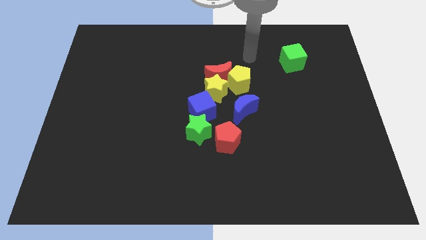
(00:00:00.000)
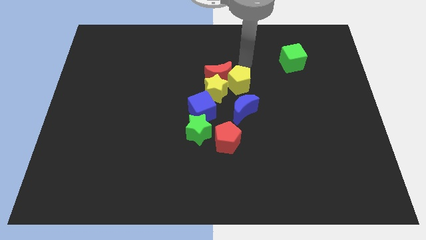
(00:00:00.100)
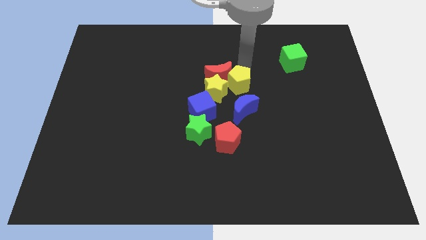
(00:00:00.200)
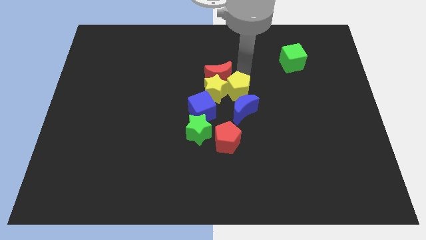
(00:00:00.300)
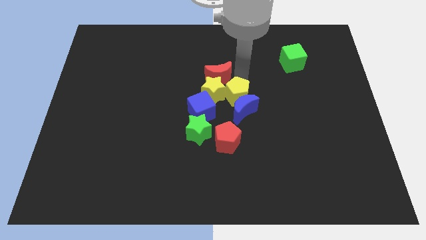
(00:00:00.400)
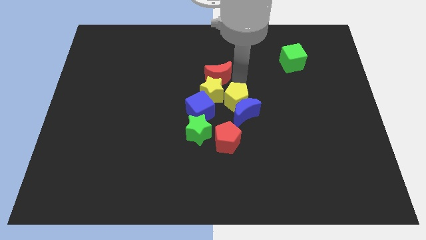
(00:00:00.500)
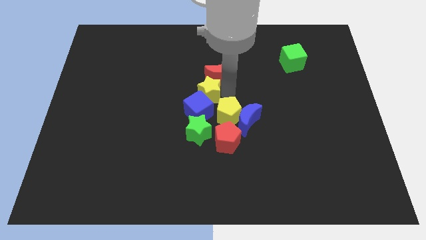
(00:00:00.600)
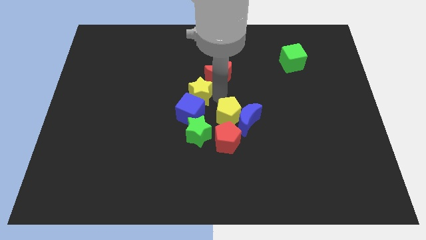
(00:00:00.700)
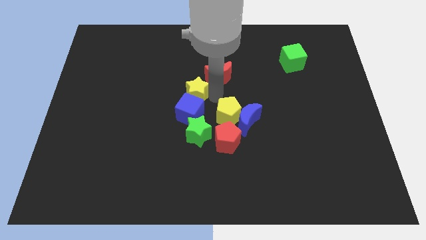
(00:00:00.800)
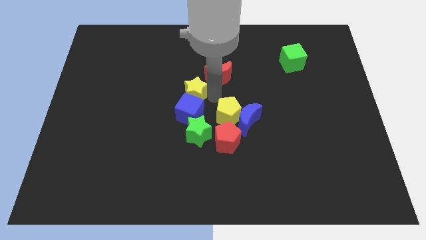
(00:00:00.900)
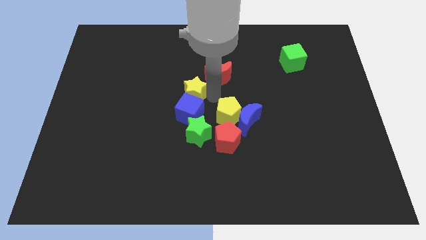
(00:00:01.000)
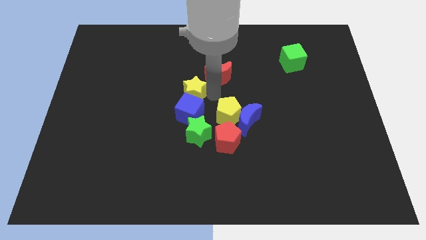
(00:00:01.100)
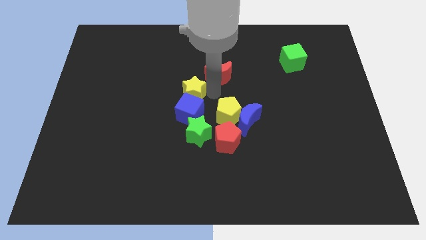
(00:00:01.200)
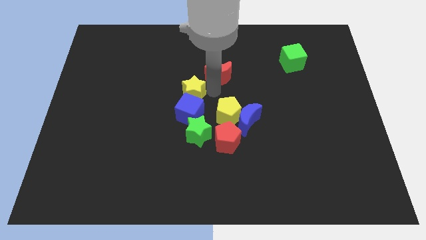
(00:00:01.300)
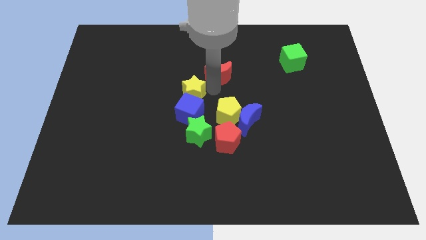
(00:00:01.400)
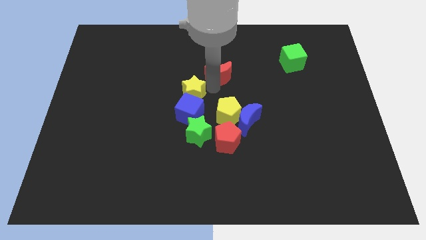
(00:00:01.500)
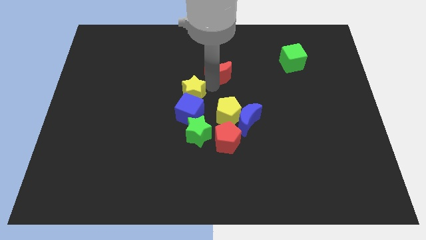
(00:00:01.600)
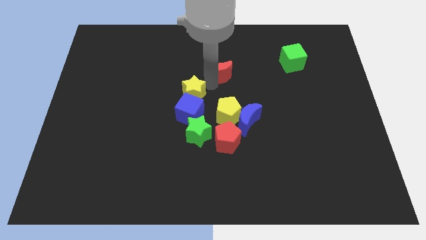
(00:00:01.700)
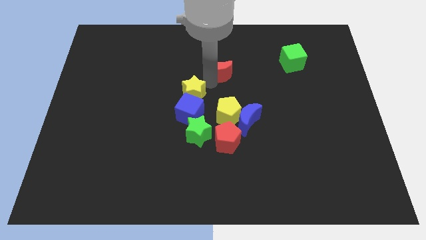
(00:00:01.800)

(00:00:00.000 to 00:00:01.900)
pull the red moon apart from the yellow star and yellow pentagon

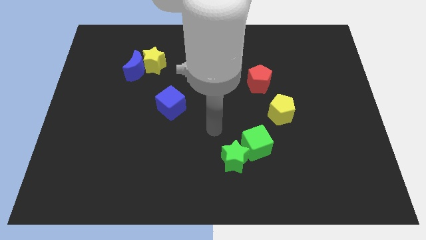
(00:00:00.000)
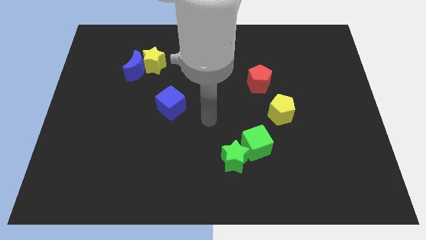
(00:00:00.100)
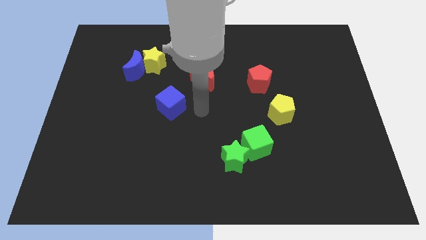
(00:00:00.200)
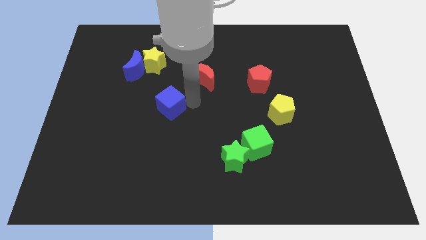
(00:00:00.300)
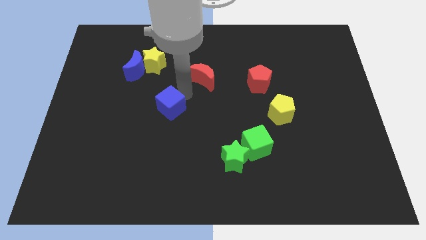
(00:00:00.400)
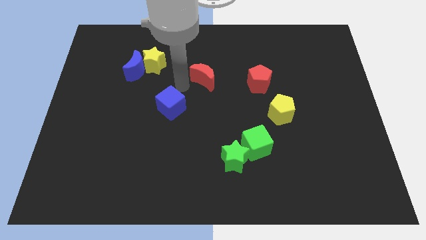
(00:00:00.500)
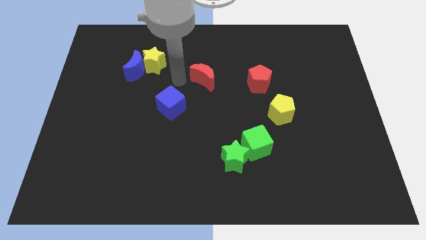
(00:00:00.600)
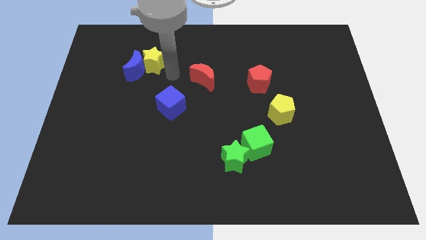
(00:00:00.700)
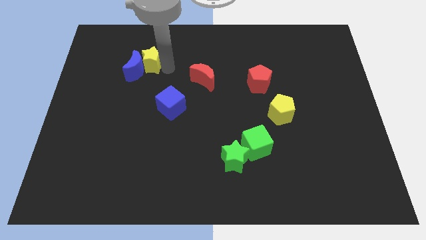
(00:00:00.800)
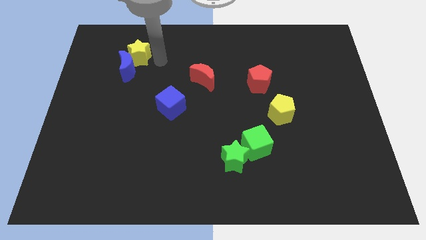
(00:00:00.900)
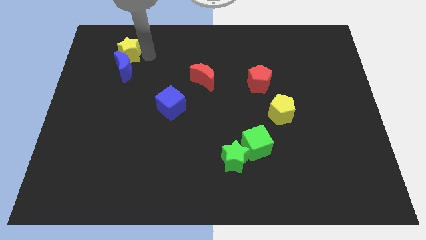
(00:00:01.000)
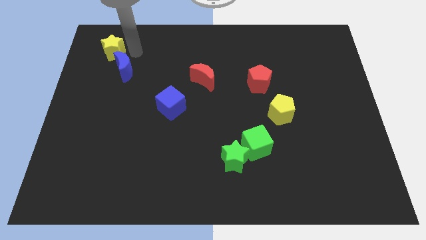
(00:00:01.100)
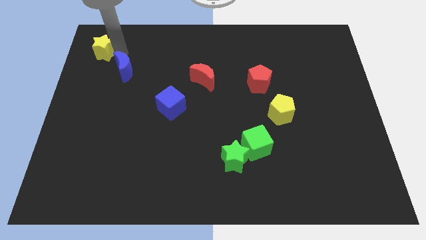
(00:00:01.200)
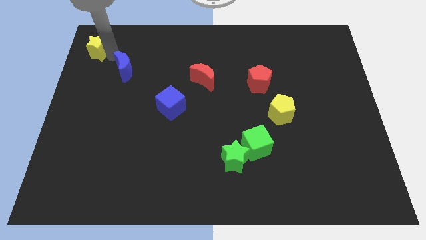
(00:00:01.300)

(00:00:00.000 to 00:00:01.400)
pull the blue moon apart from the yellow star

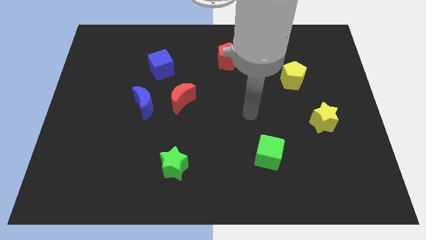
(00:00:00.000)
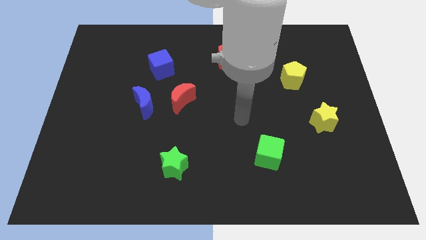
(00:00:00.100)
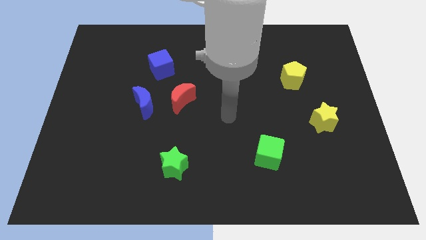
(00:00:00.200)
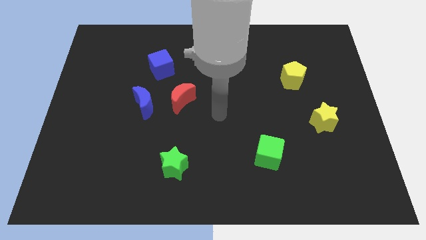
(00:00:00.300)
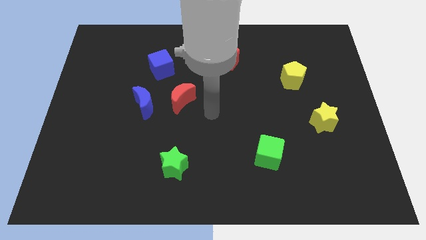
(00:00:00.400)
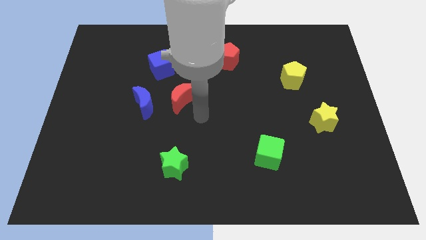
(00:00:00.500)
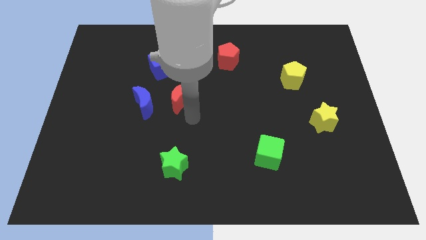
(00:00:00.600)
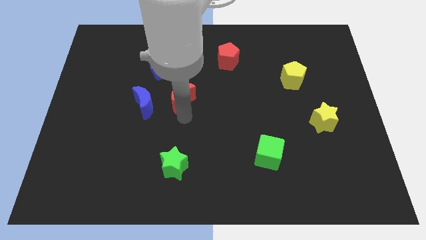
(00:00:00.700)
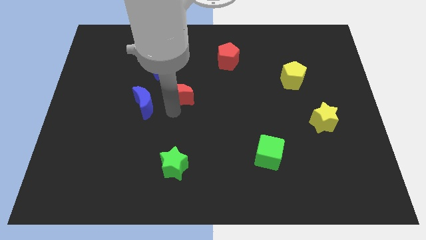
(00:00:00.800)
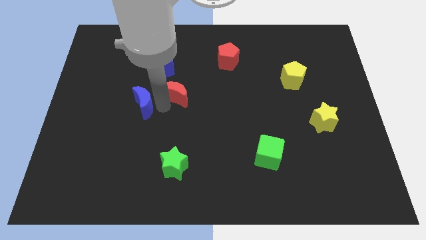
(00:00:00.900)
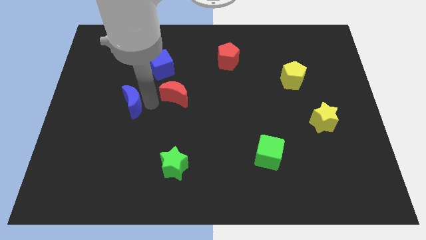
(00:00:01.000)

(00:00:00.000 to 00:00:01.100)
pull the red moon apart from the blue moon

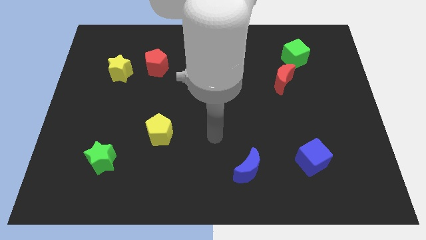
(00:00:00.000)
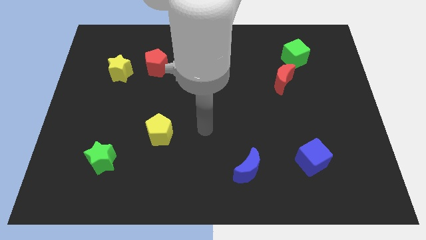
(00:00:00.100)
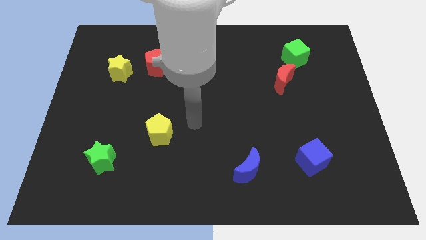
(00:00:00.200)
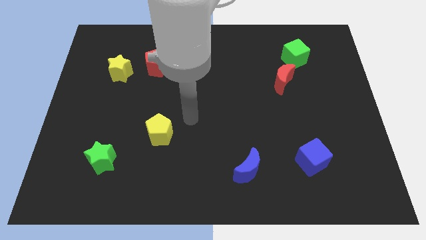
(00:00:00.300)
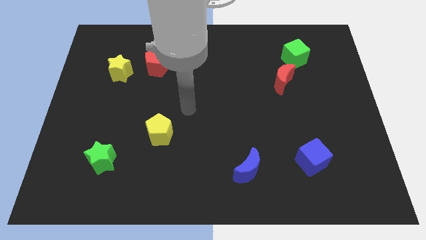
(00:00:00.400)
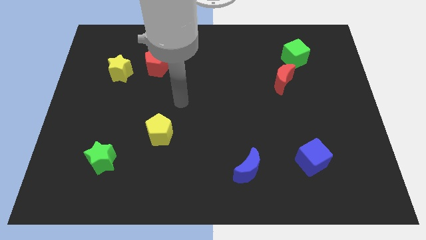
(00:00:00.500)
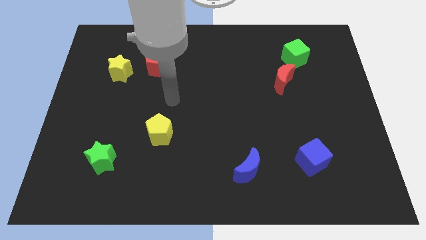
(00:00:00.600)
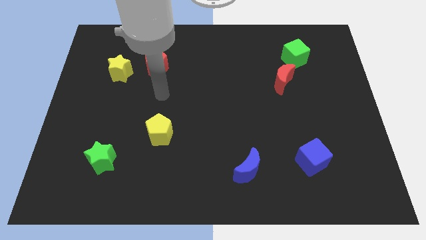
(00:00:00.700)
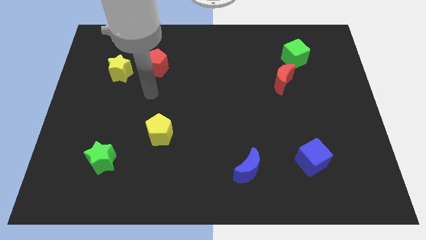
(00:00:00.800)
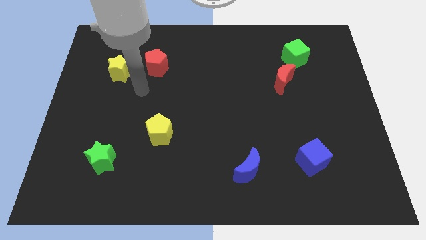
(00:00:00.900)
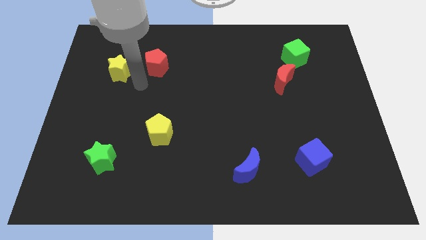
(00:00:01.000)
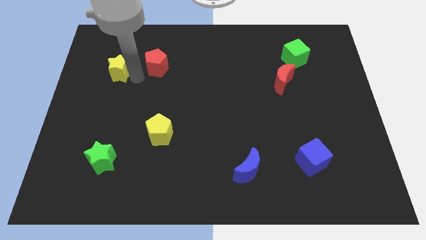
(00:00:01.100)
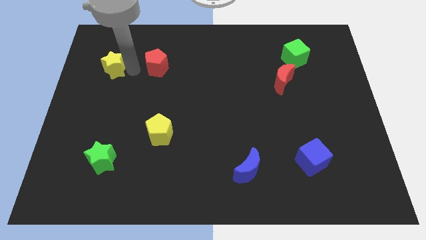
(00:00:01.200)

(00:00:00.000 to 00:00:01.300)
separate the red pentagon from the yellow star

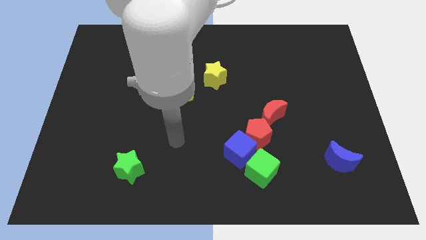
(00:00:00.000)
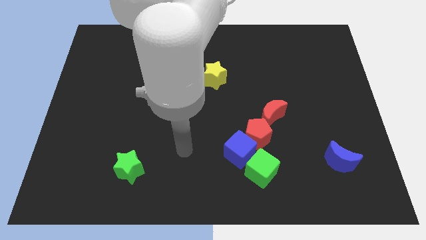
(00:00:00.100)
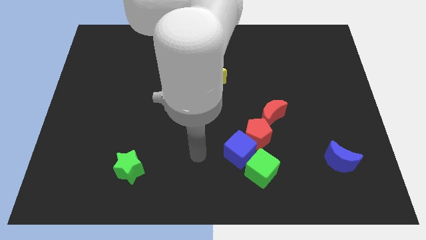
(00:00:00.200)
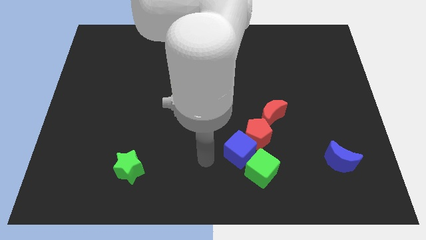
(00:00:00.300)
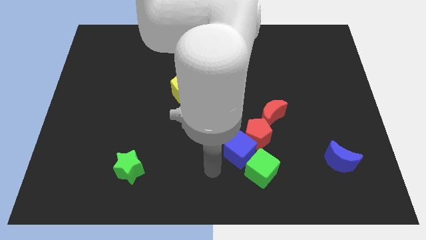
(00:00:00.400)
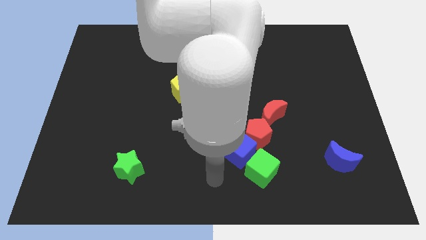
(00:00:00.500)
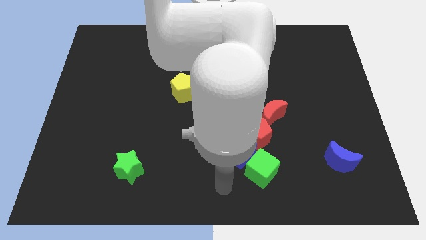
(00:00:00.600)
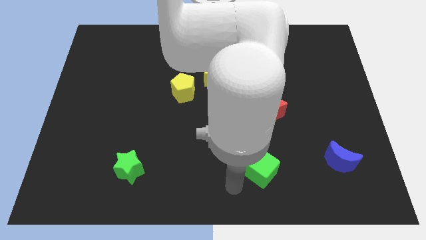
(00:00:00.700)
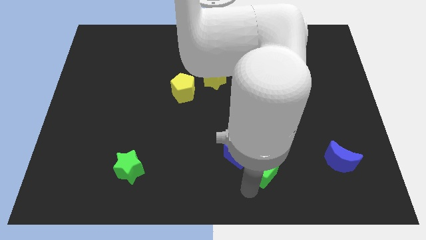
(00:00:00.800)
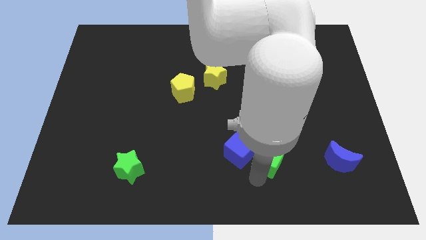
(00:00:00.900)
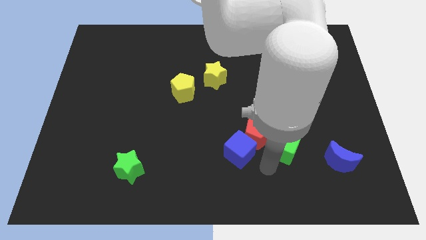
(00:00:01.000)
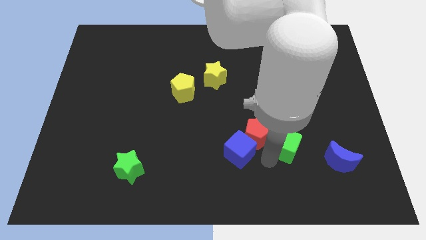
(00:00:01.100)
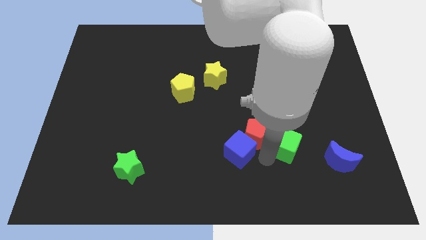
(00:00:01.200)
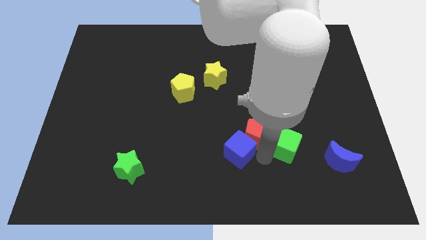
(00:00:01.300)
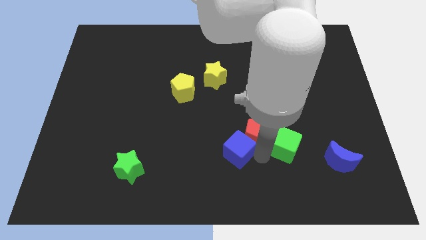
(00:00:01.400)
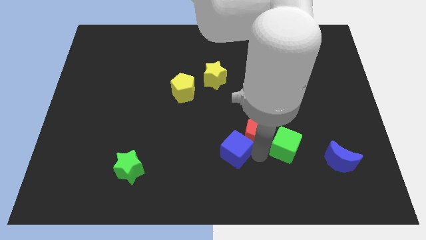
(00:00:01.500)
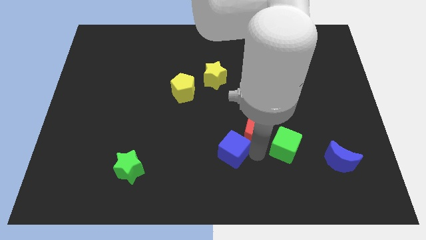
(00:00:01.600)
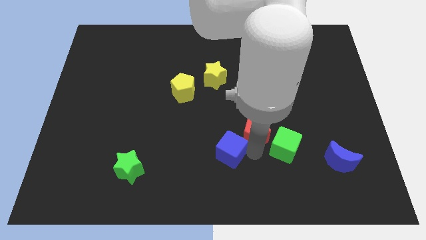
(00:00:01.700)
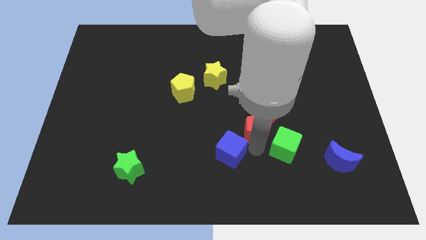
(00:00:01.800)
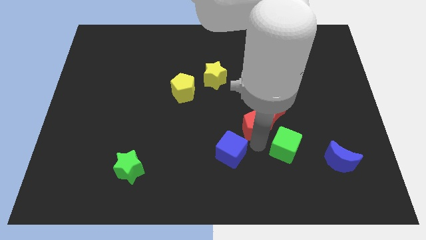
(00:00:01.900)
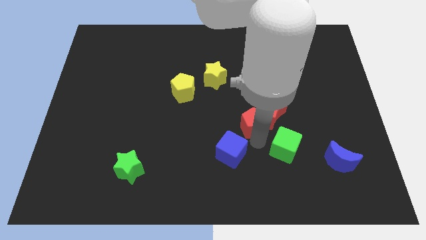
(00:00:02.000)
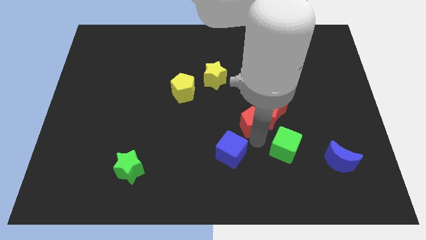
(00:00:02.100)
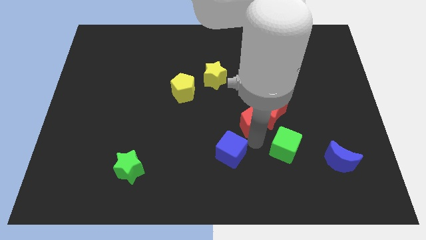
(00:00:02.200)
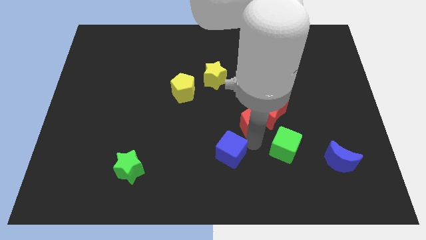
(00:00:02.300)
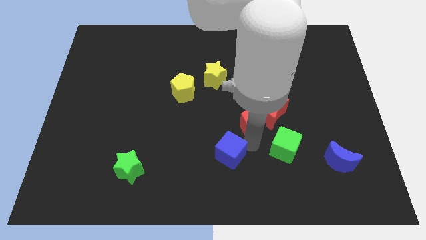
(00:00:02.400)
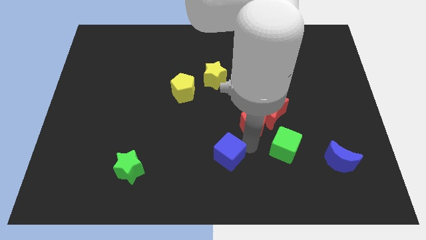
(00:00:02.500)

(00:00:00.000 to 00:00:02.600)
pull the blue cube apart from the red pentagon and green cube

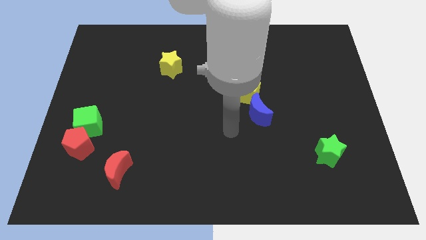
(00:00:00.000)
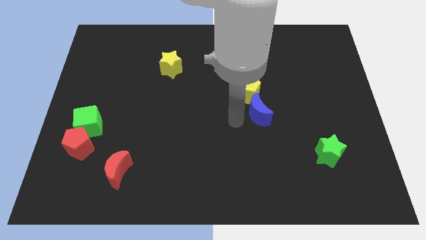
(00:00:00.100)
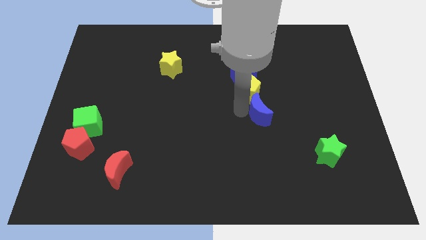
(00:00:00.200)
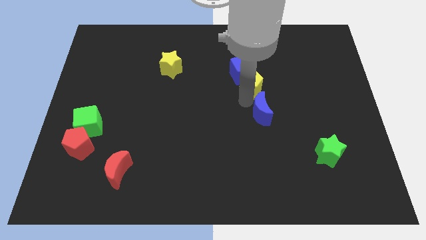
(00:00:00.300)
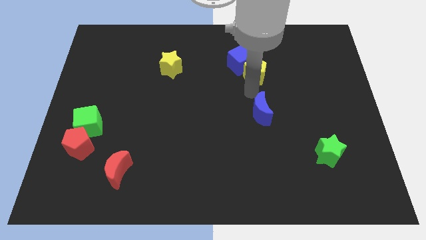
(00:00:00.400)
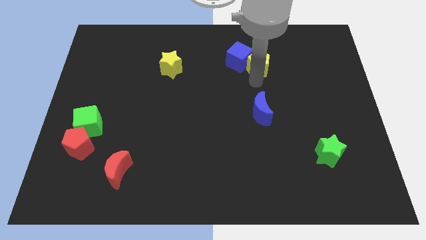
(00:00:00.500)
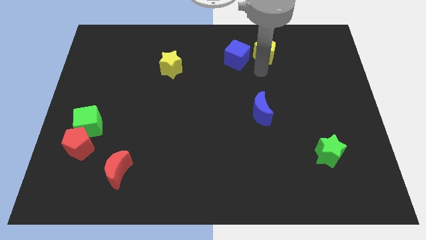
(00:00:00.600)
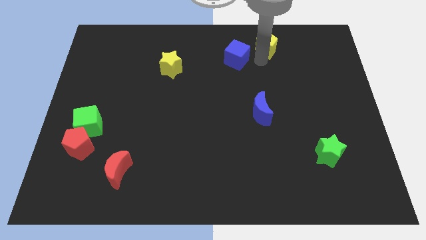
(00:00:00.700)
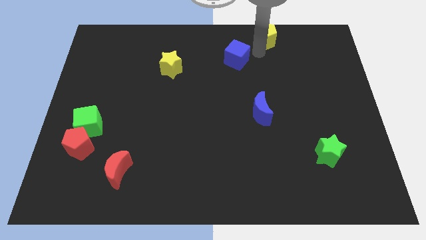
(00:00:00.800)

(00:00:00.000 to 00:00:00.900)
separate the blue cube from the yellow pentagon
